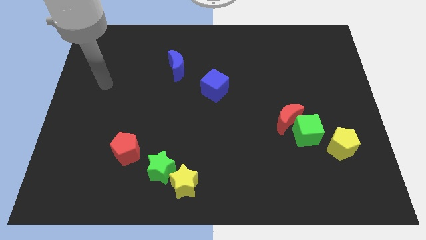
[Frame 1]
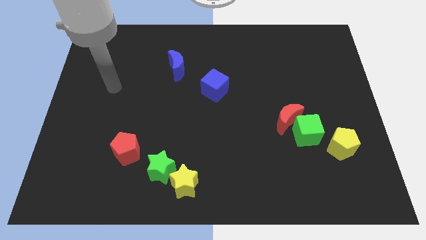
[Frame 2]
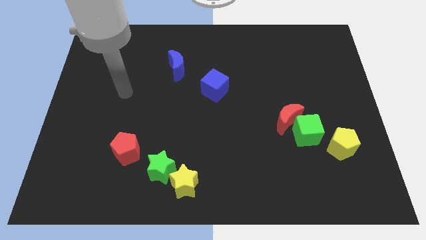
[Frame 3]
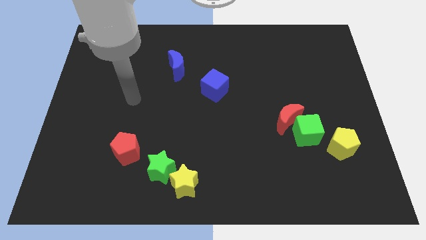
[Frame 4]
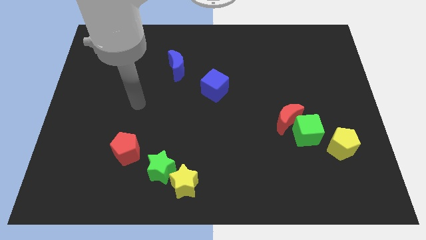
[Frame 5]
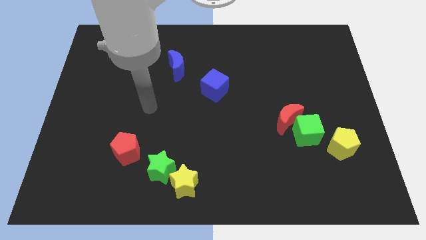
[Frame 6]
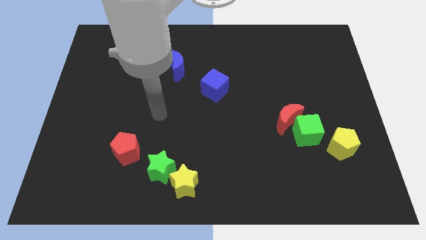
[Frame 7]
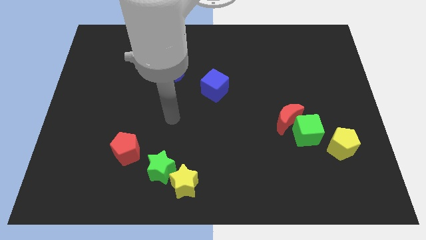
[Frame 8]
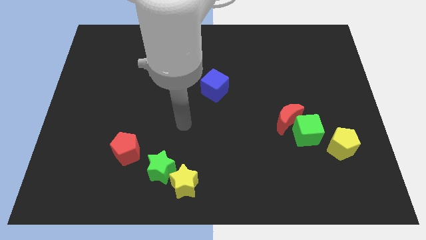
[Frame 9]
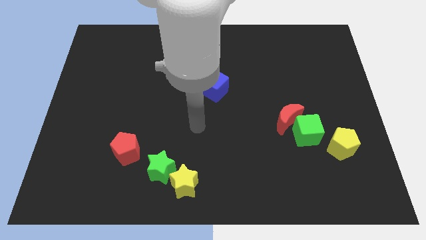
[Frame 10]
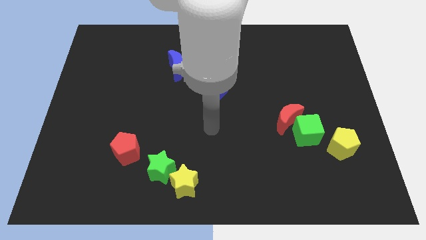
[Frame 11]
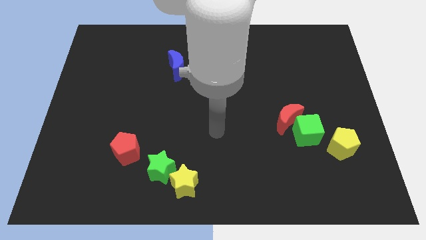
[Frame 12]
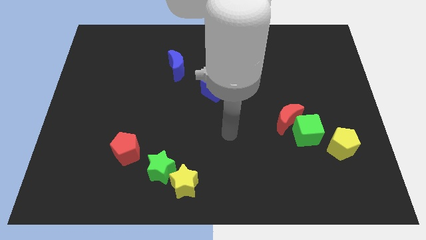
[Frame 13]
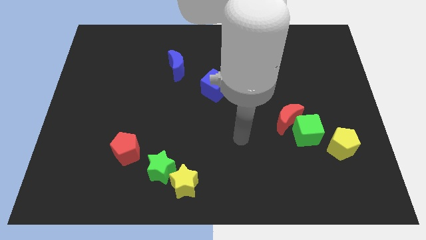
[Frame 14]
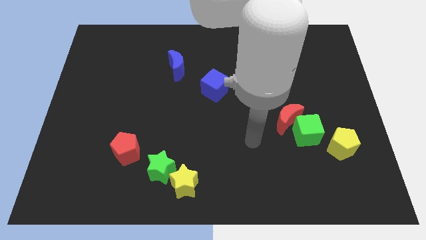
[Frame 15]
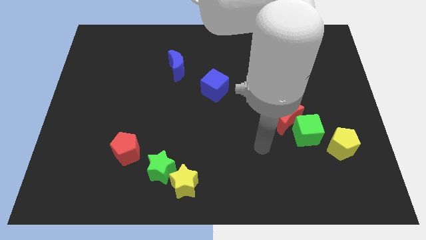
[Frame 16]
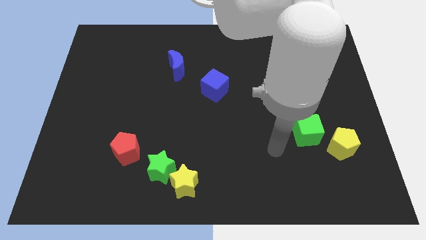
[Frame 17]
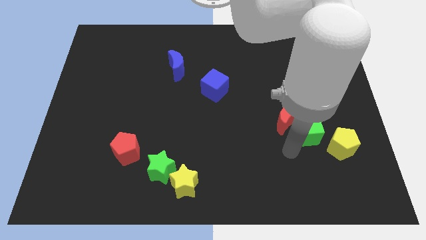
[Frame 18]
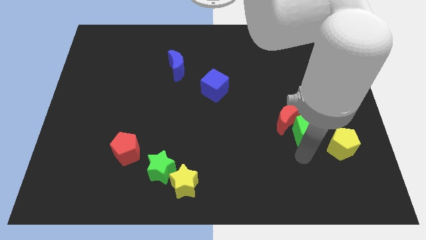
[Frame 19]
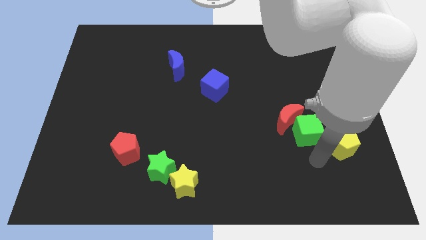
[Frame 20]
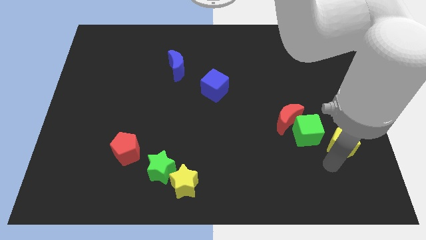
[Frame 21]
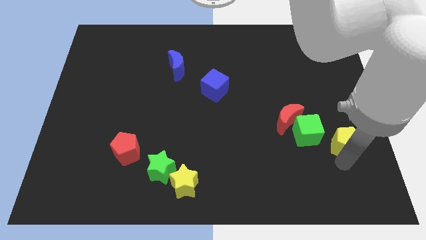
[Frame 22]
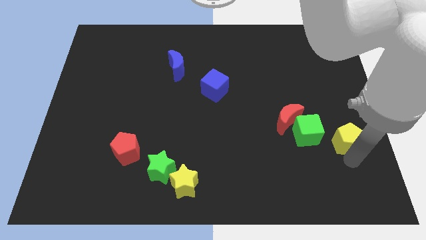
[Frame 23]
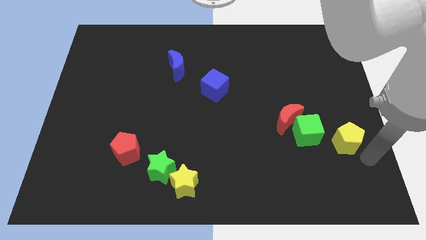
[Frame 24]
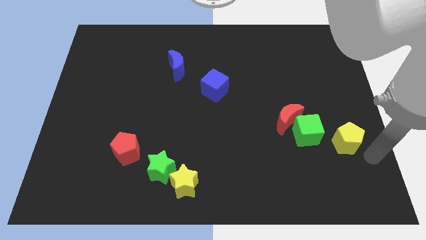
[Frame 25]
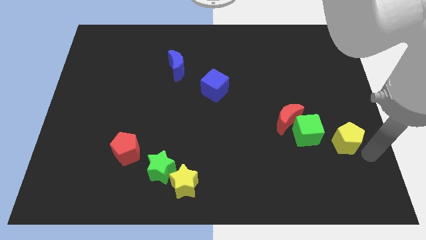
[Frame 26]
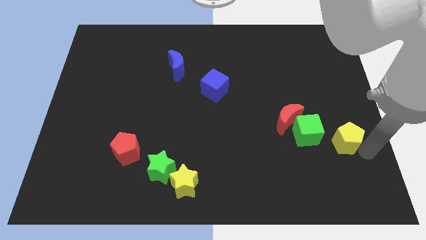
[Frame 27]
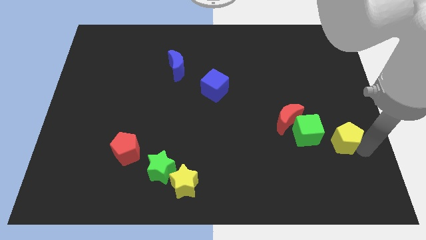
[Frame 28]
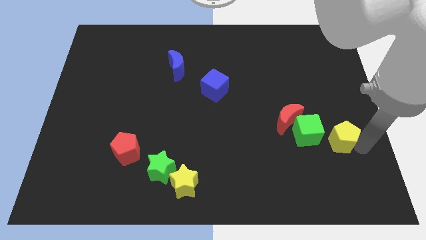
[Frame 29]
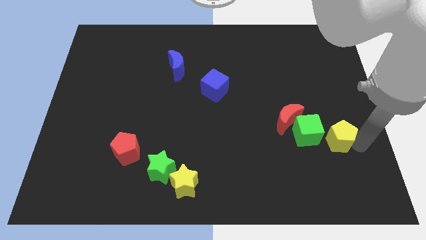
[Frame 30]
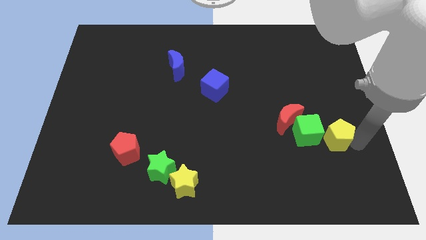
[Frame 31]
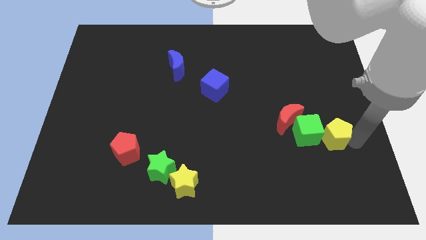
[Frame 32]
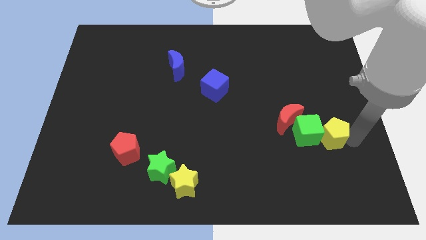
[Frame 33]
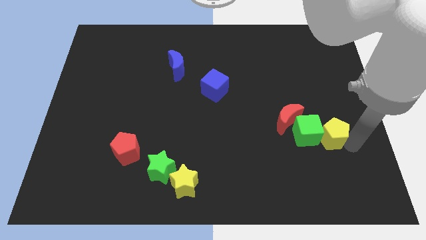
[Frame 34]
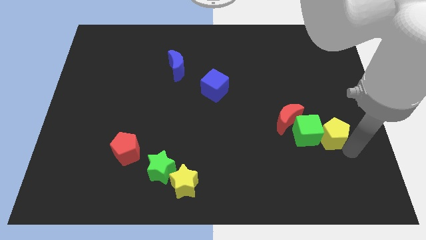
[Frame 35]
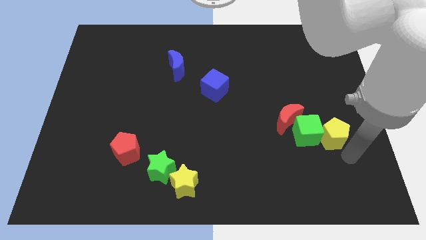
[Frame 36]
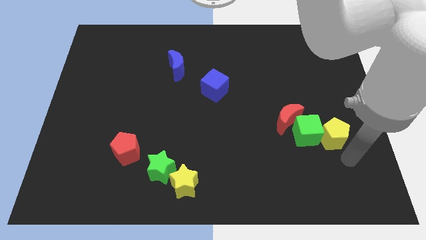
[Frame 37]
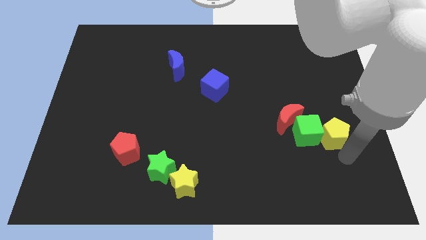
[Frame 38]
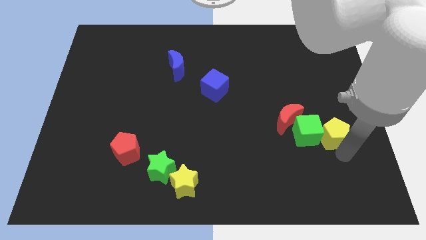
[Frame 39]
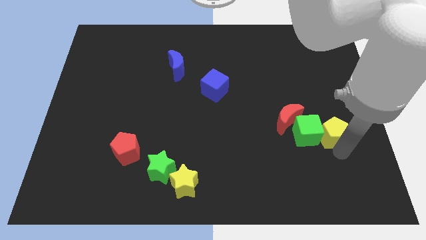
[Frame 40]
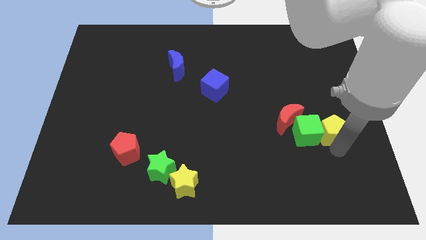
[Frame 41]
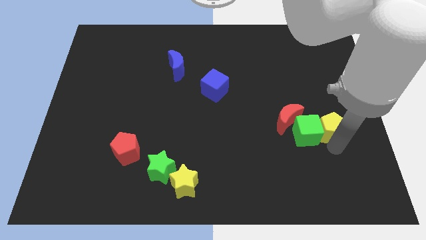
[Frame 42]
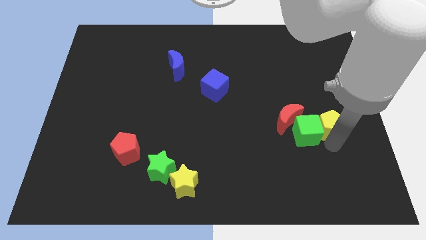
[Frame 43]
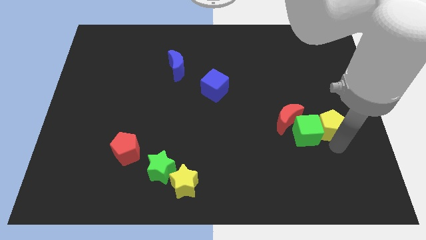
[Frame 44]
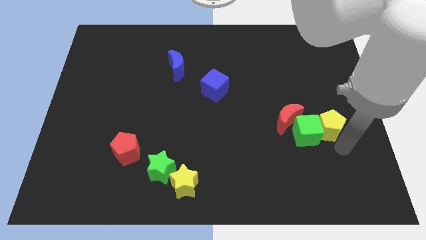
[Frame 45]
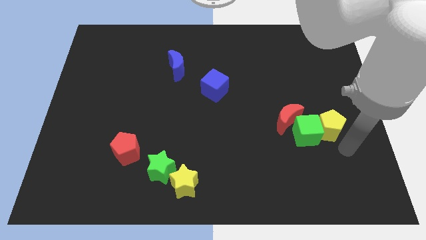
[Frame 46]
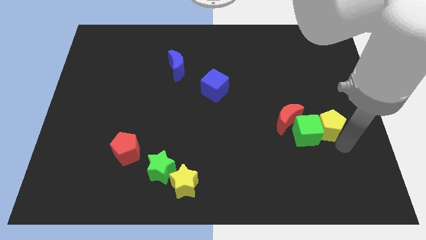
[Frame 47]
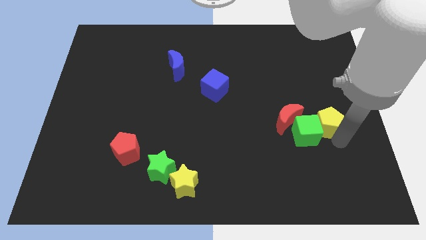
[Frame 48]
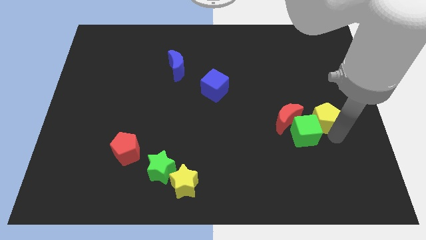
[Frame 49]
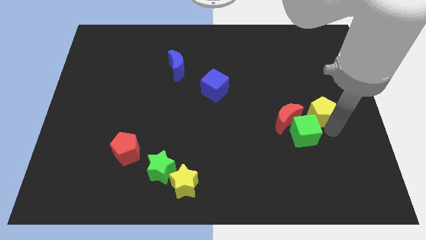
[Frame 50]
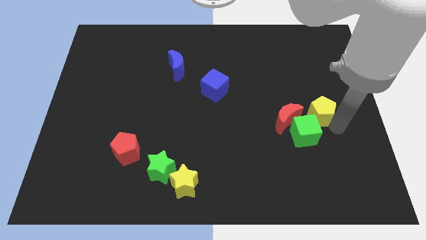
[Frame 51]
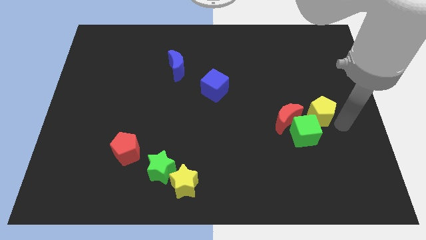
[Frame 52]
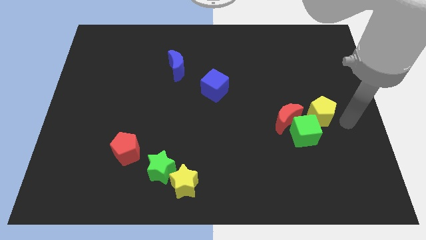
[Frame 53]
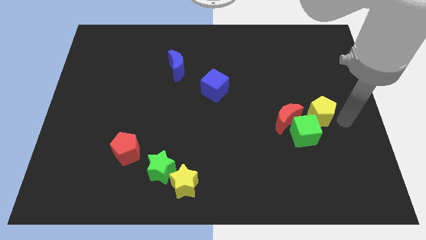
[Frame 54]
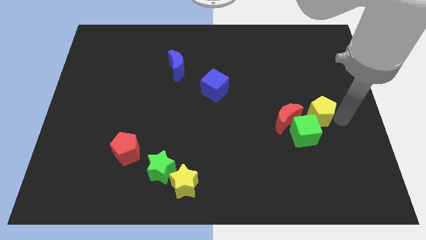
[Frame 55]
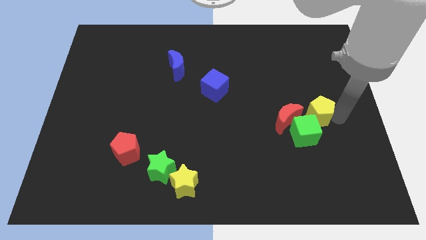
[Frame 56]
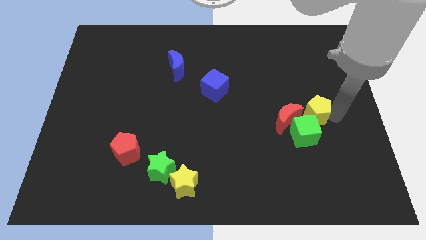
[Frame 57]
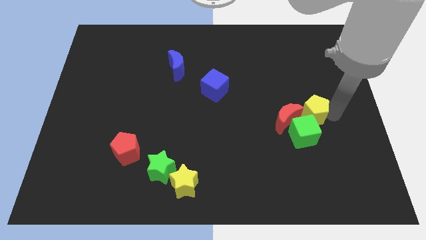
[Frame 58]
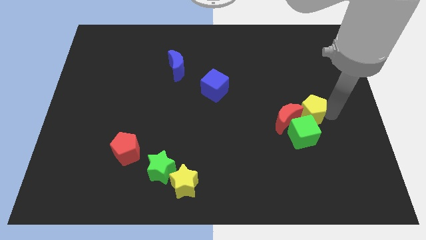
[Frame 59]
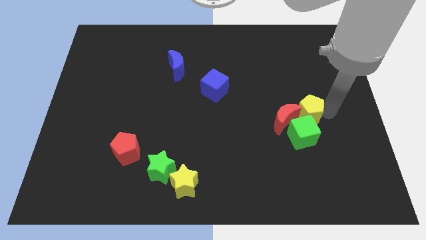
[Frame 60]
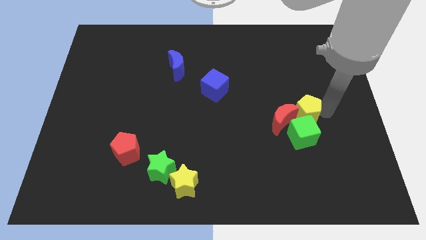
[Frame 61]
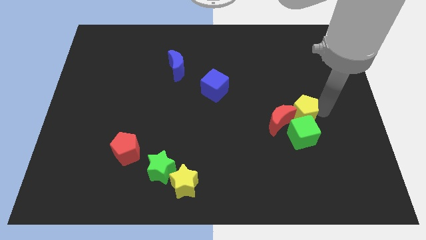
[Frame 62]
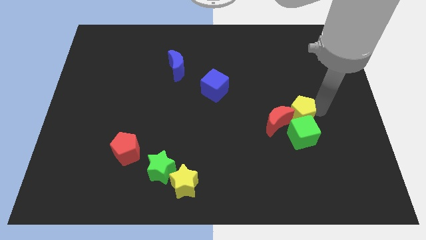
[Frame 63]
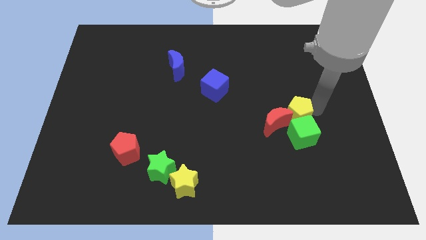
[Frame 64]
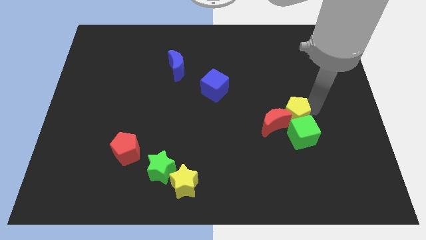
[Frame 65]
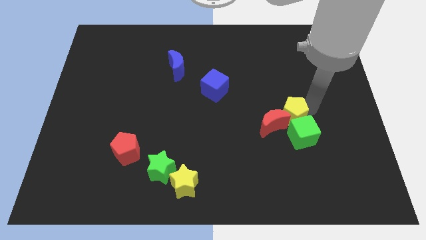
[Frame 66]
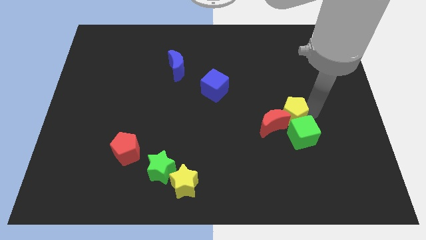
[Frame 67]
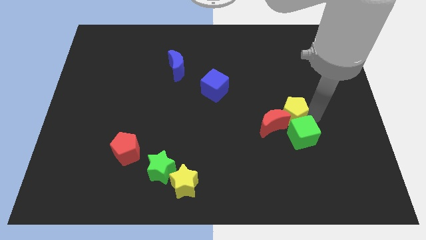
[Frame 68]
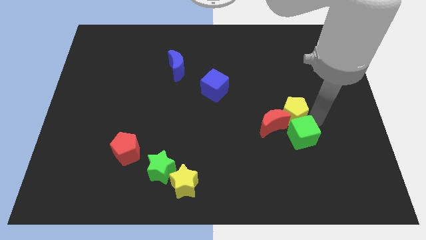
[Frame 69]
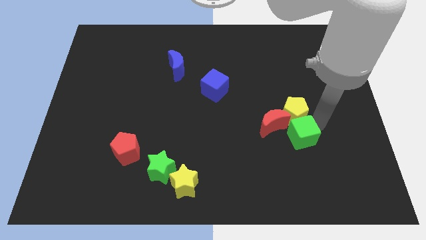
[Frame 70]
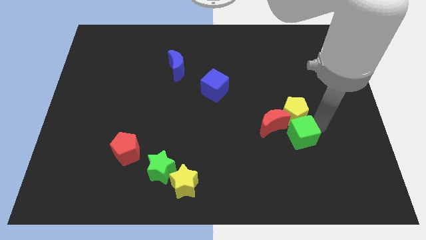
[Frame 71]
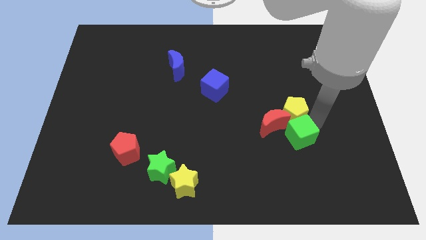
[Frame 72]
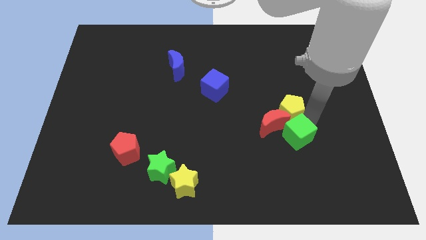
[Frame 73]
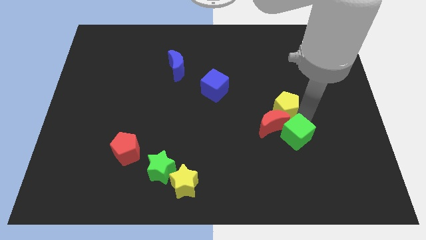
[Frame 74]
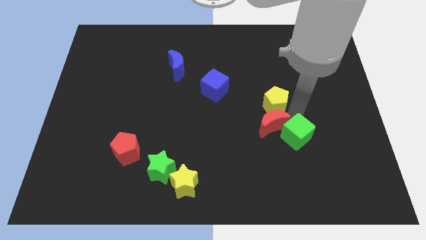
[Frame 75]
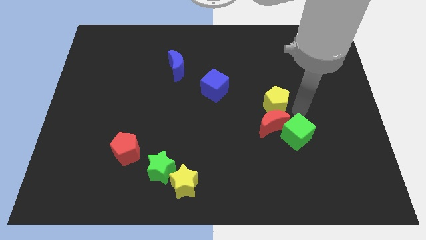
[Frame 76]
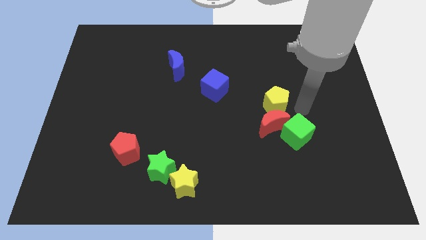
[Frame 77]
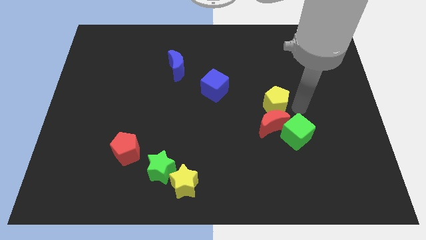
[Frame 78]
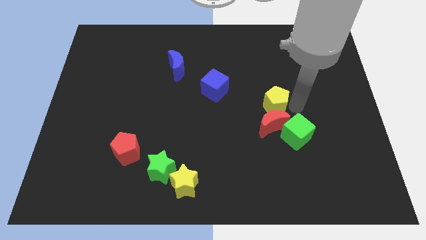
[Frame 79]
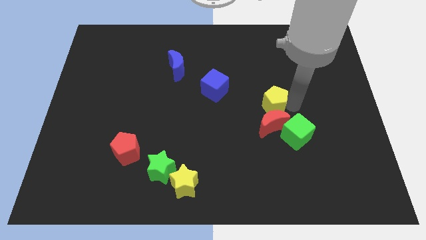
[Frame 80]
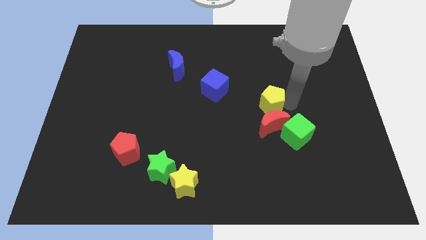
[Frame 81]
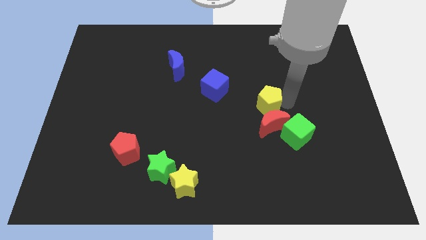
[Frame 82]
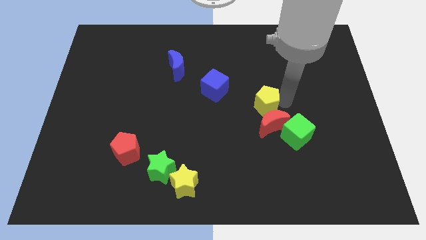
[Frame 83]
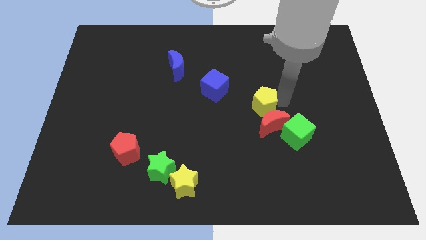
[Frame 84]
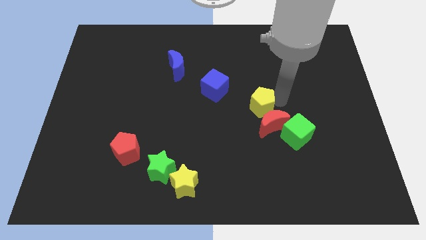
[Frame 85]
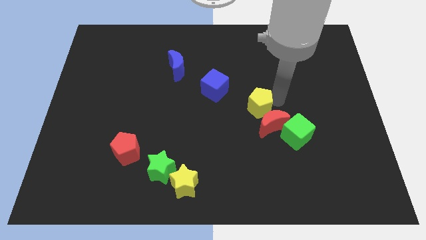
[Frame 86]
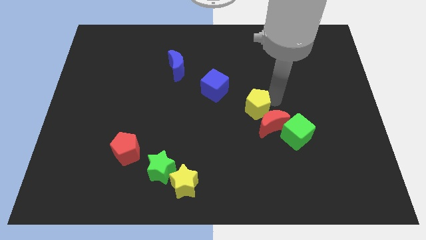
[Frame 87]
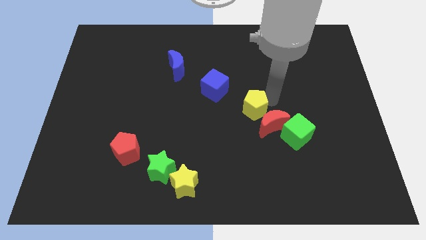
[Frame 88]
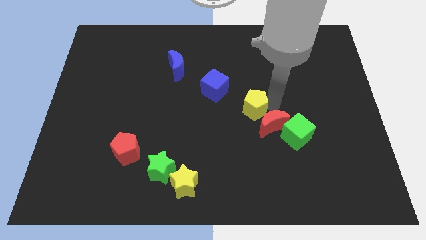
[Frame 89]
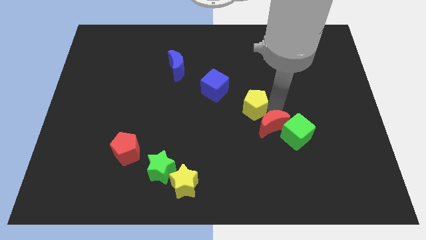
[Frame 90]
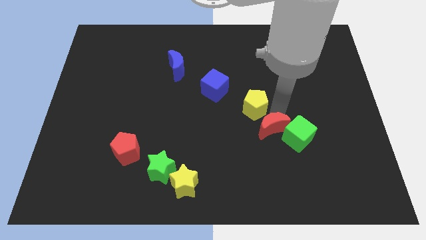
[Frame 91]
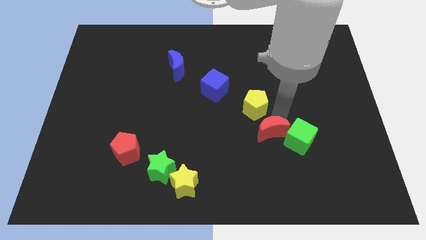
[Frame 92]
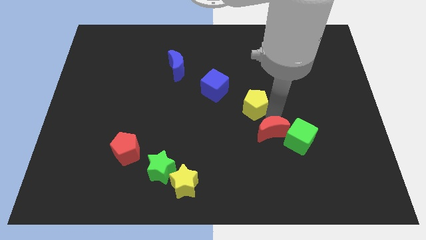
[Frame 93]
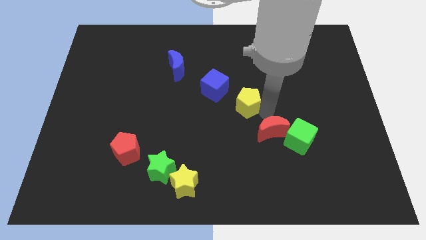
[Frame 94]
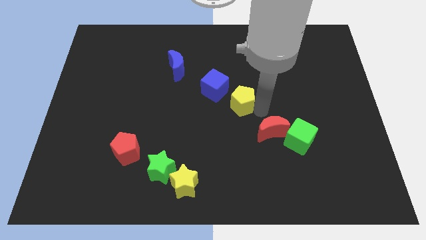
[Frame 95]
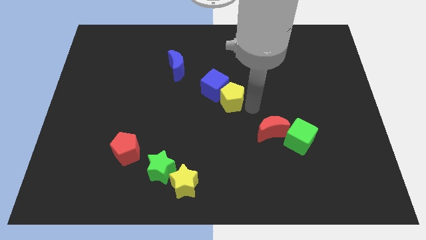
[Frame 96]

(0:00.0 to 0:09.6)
move the yellow pentagon next to the blue cube
